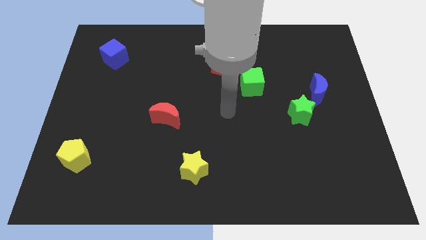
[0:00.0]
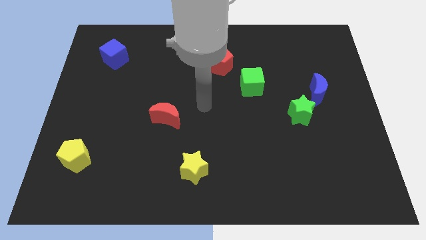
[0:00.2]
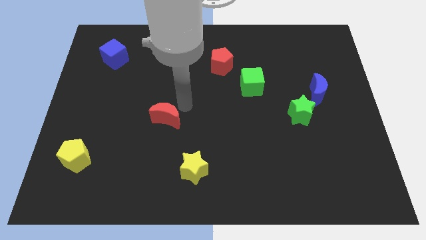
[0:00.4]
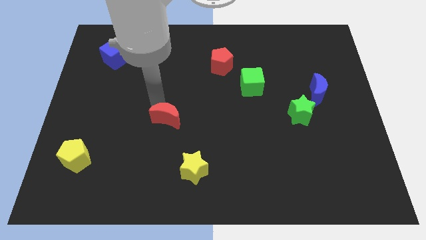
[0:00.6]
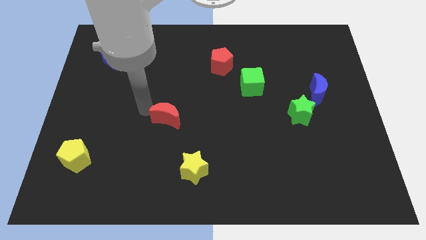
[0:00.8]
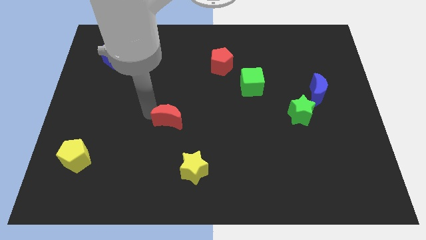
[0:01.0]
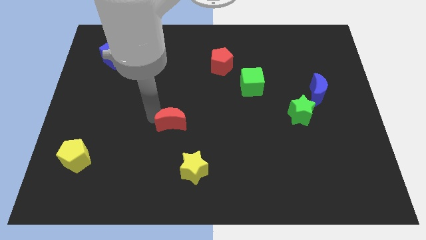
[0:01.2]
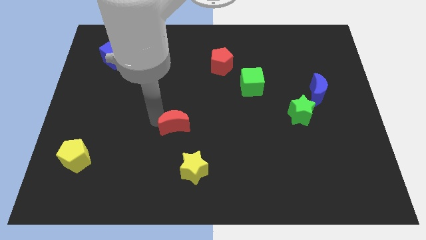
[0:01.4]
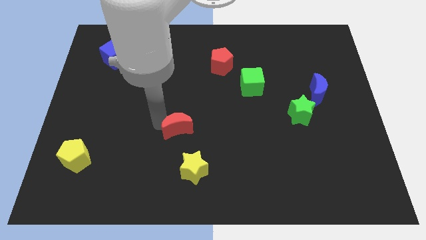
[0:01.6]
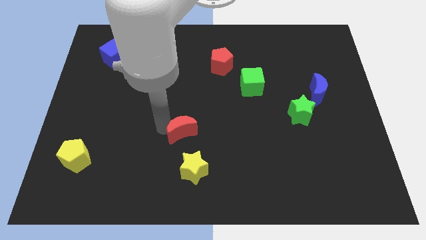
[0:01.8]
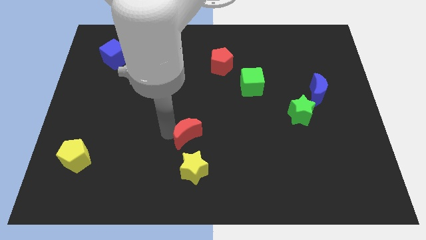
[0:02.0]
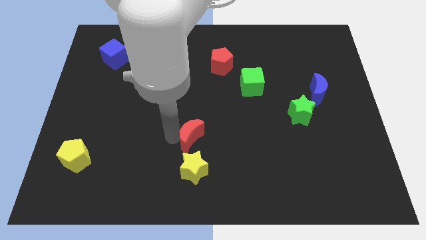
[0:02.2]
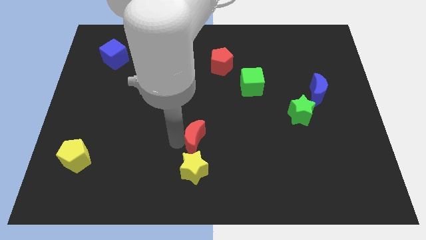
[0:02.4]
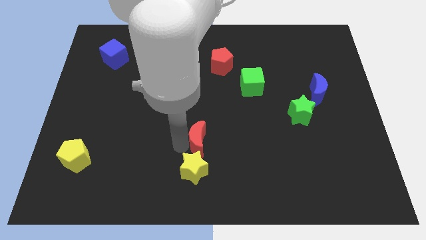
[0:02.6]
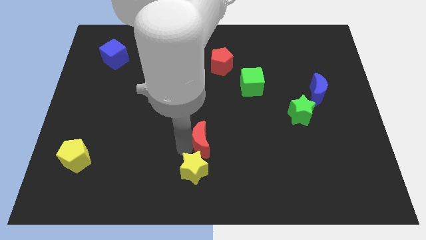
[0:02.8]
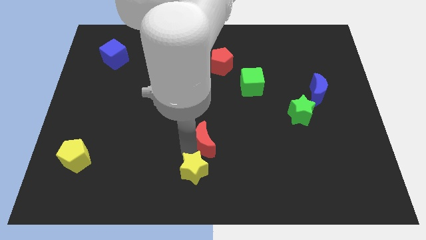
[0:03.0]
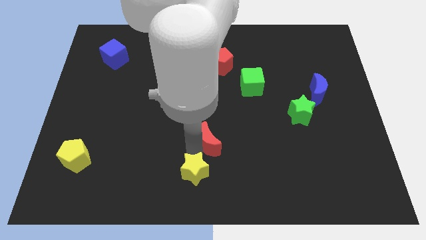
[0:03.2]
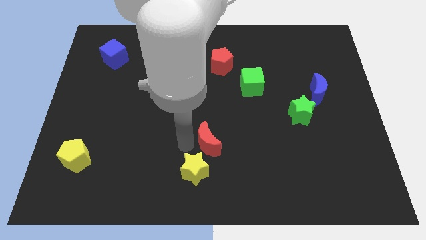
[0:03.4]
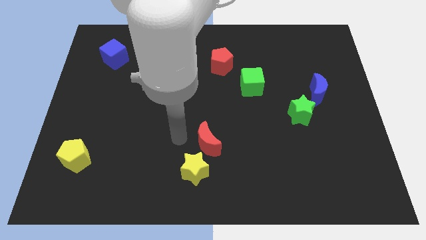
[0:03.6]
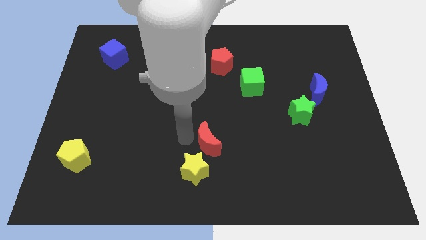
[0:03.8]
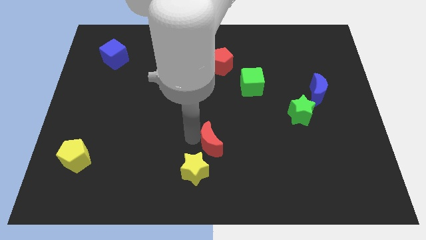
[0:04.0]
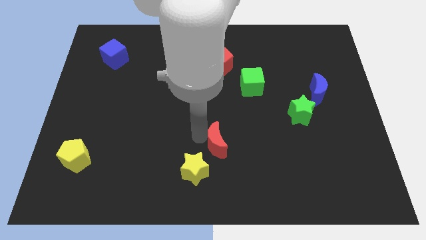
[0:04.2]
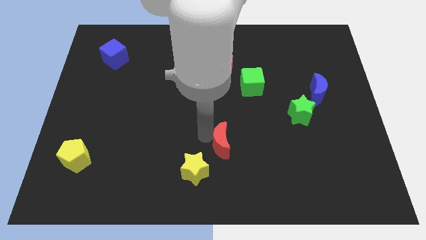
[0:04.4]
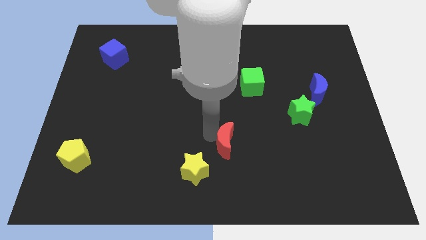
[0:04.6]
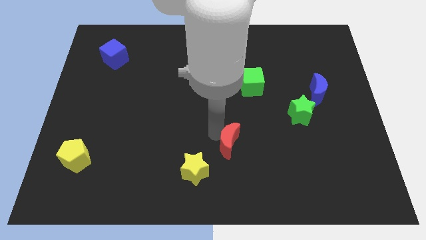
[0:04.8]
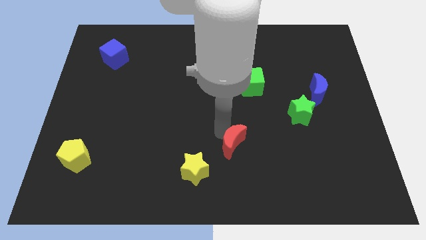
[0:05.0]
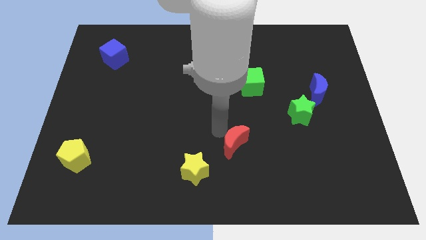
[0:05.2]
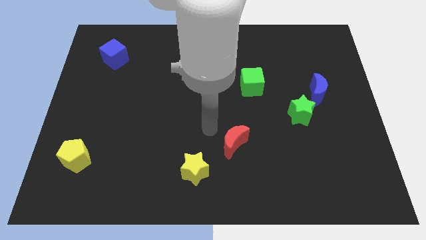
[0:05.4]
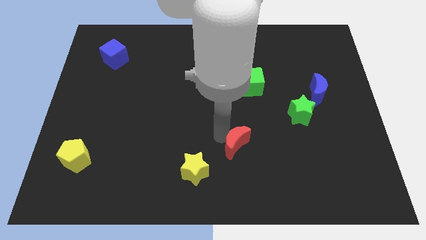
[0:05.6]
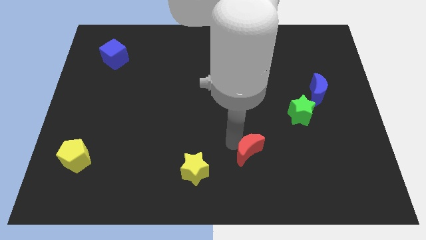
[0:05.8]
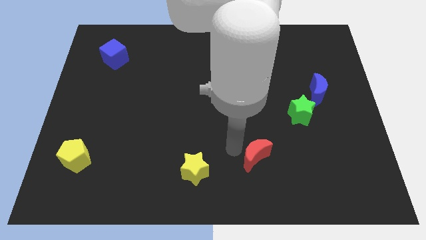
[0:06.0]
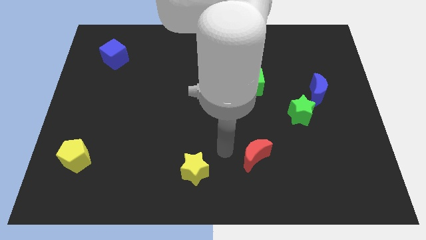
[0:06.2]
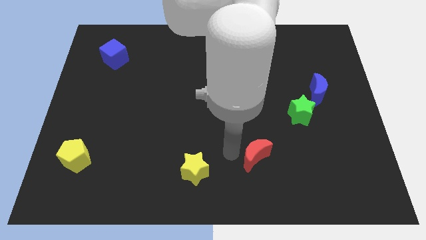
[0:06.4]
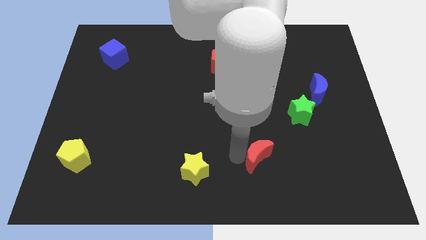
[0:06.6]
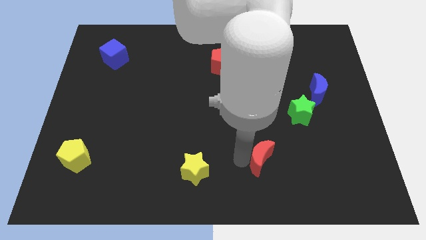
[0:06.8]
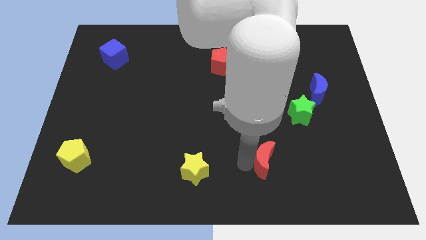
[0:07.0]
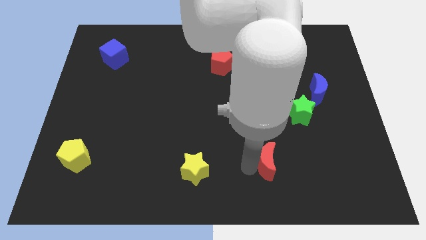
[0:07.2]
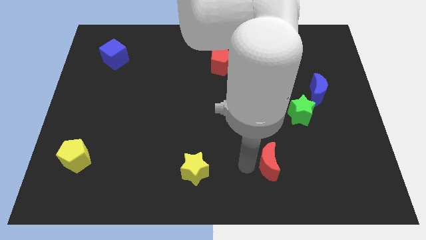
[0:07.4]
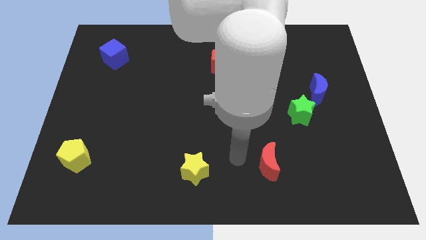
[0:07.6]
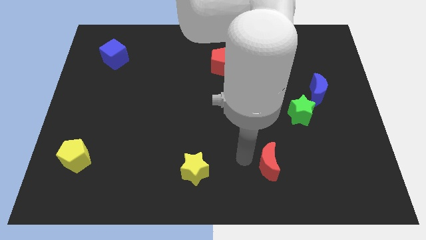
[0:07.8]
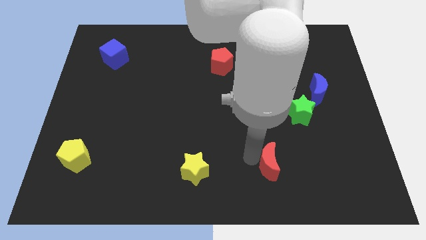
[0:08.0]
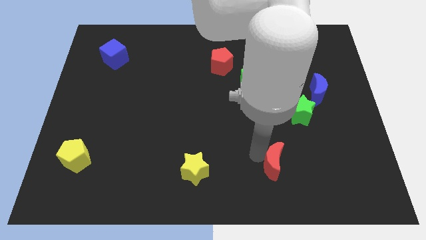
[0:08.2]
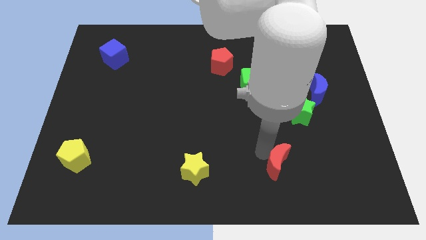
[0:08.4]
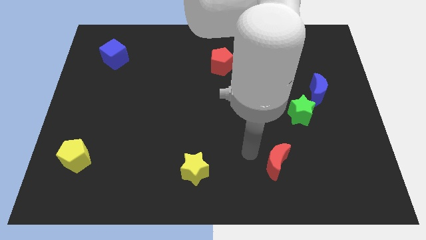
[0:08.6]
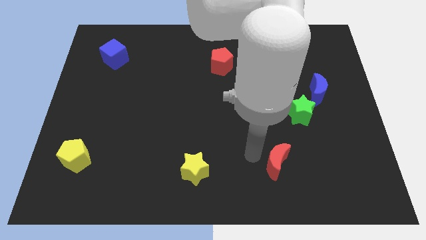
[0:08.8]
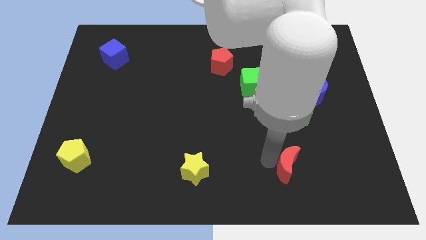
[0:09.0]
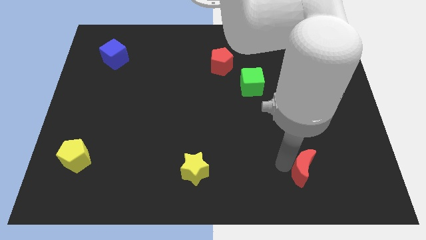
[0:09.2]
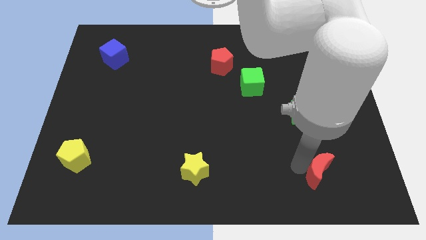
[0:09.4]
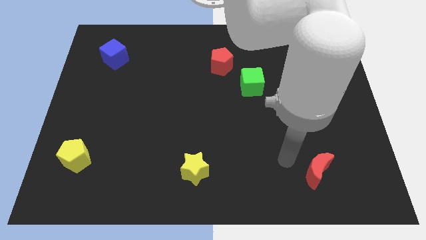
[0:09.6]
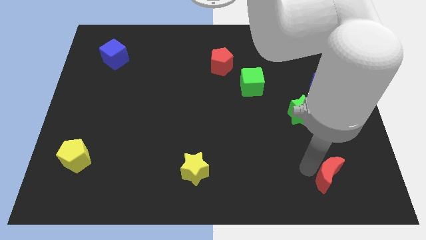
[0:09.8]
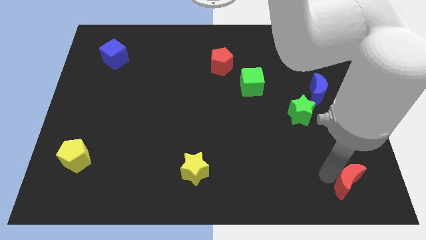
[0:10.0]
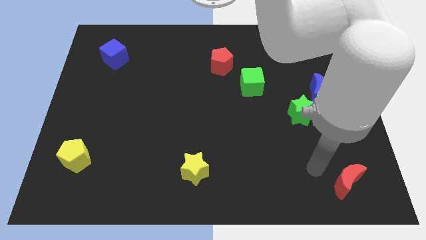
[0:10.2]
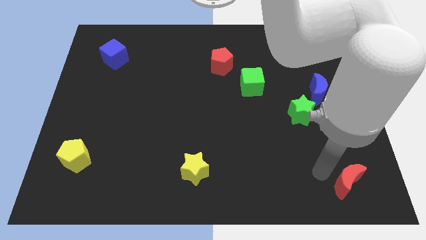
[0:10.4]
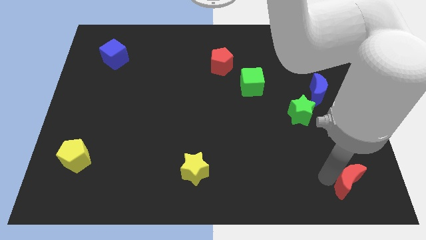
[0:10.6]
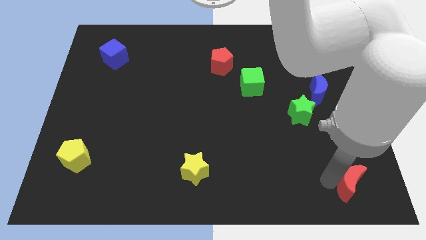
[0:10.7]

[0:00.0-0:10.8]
push the red moon to the bottom right

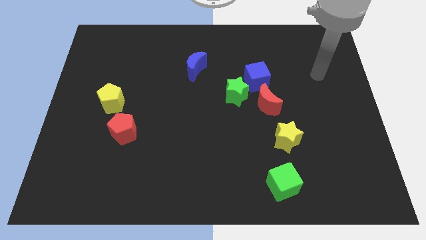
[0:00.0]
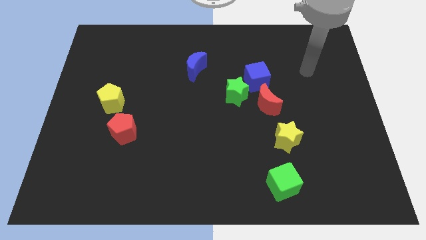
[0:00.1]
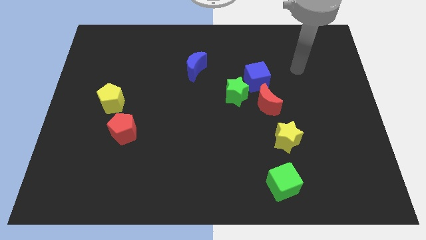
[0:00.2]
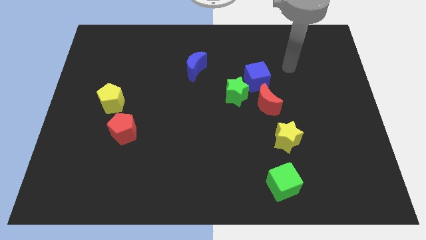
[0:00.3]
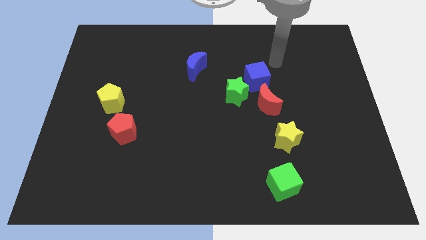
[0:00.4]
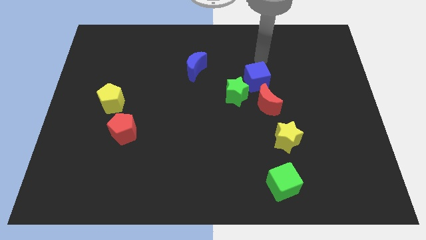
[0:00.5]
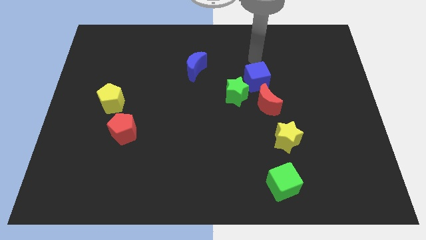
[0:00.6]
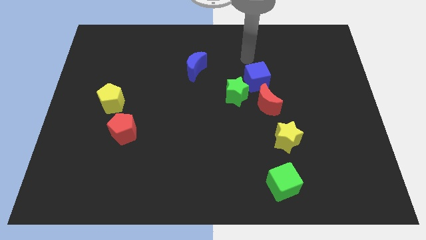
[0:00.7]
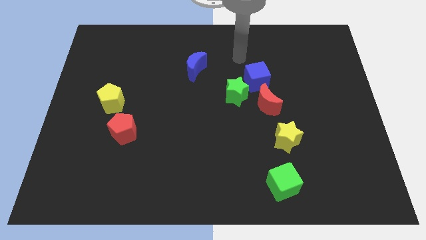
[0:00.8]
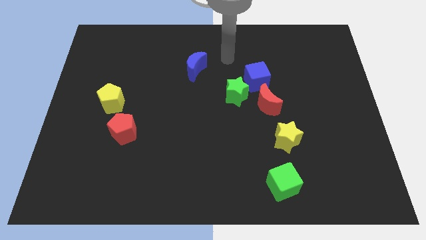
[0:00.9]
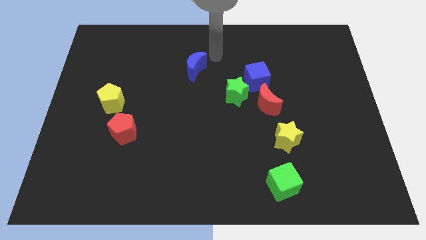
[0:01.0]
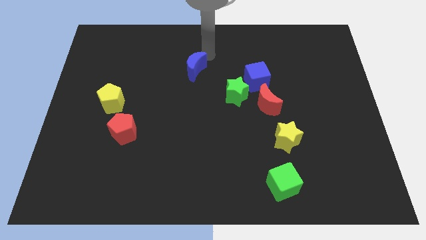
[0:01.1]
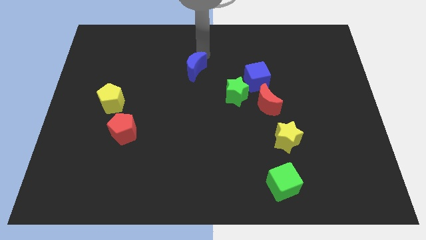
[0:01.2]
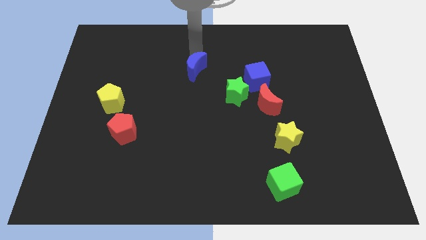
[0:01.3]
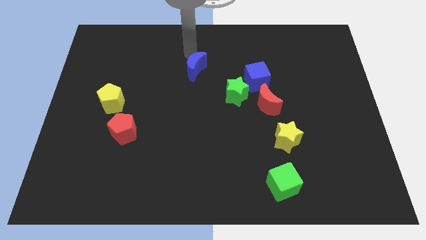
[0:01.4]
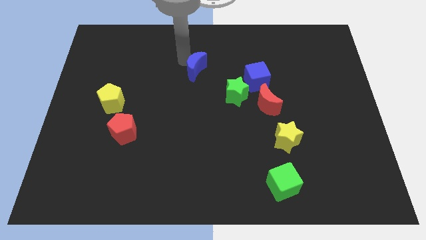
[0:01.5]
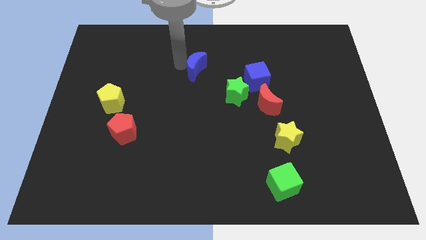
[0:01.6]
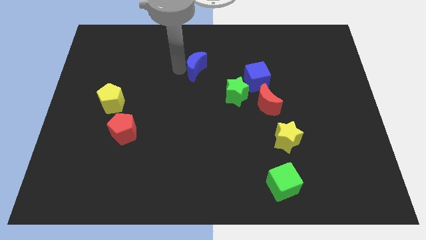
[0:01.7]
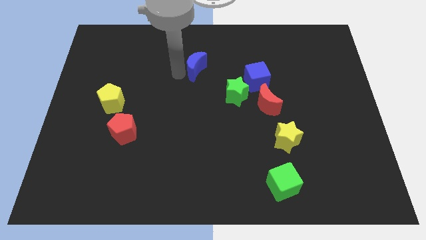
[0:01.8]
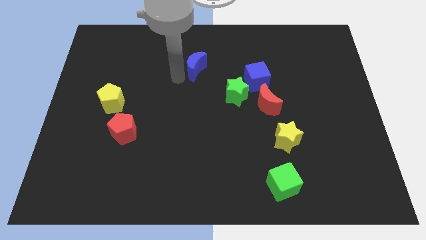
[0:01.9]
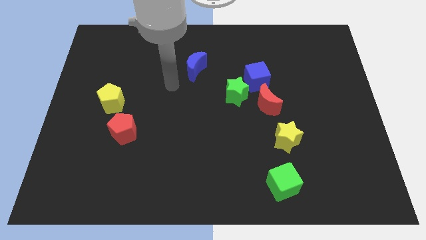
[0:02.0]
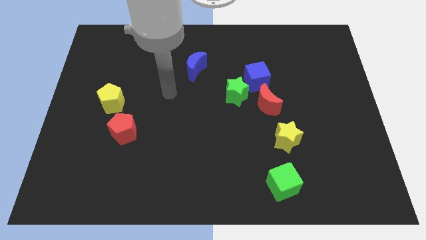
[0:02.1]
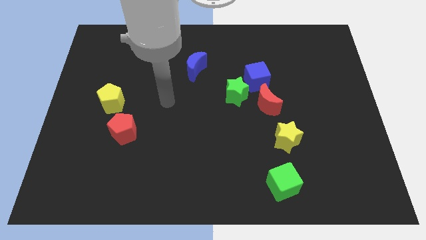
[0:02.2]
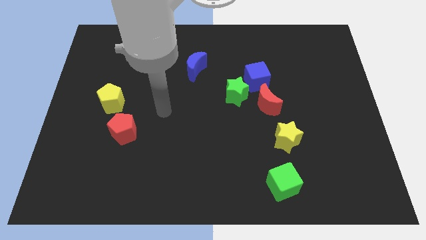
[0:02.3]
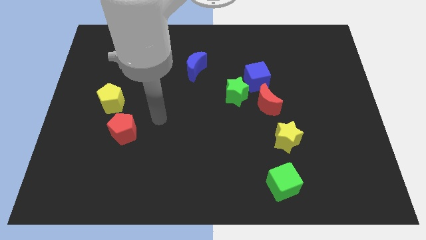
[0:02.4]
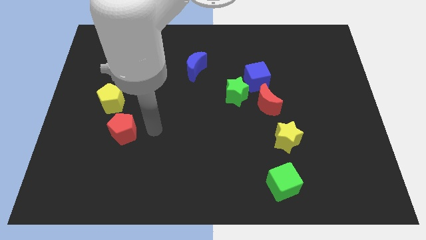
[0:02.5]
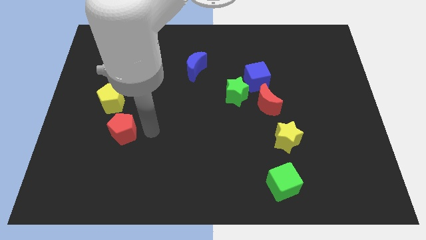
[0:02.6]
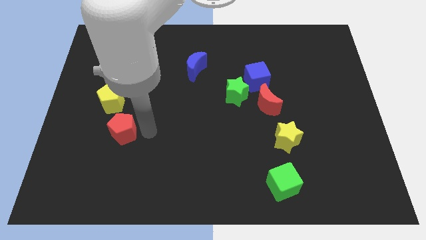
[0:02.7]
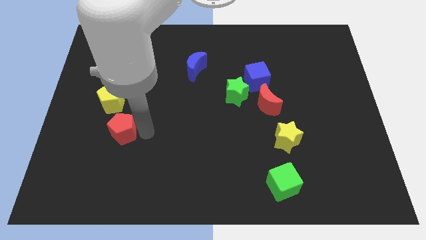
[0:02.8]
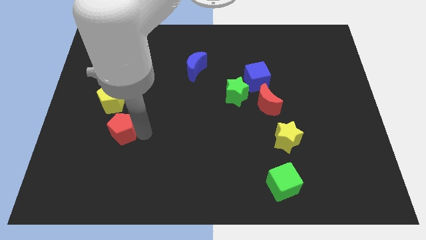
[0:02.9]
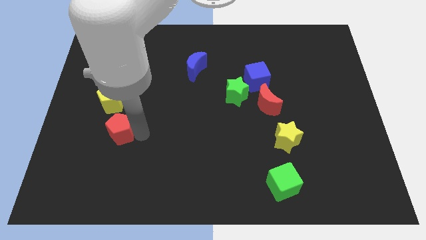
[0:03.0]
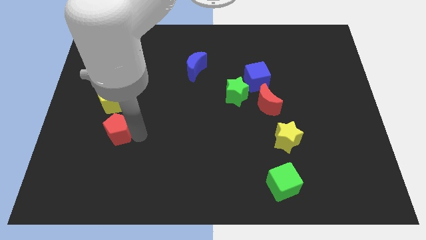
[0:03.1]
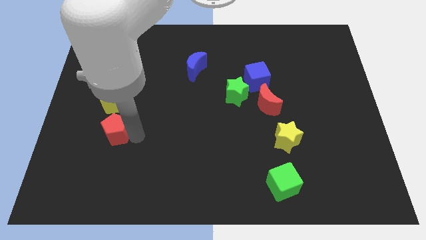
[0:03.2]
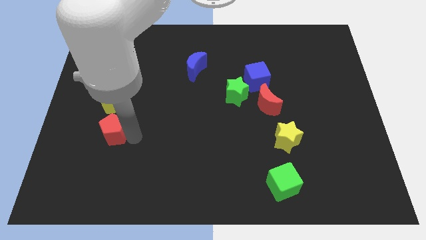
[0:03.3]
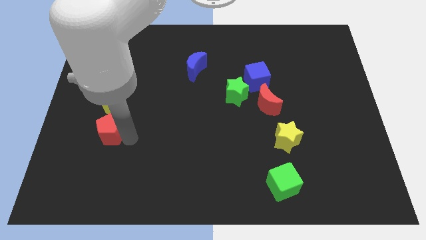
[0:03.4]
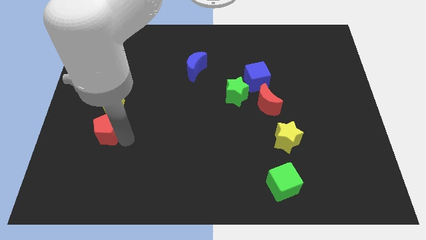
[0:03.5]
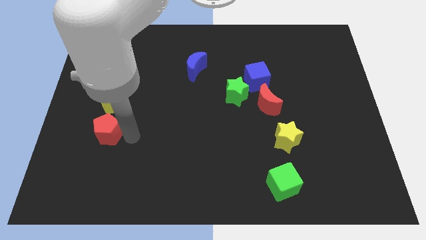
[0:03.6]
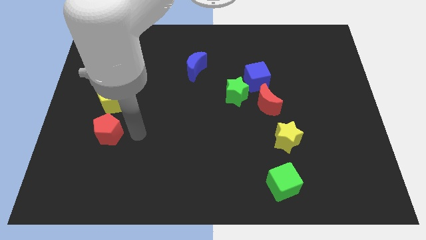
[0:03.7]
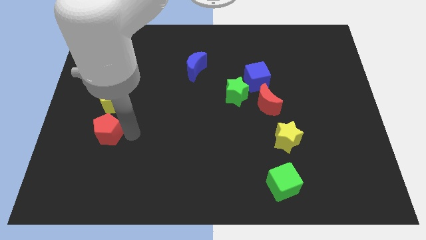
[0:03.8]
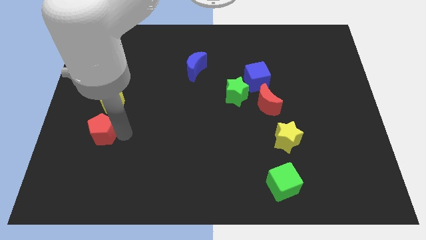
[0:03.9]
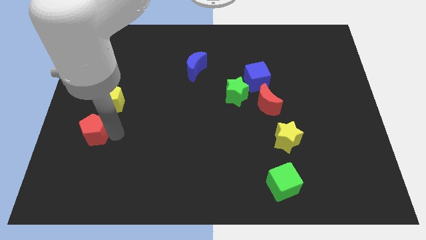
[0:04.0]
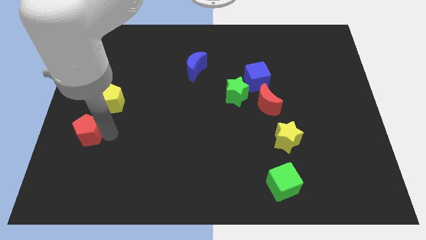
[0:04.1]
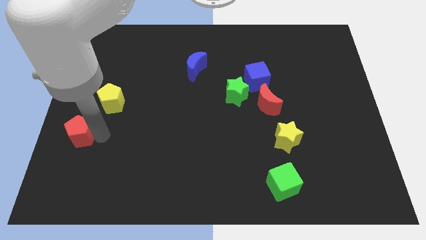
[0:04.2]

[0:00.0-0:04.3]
push the red pentagon to the center left
